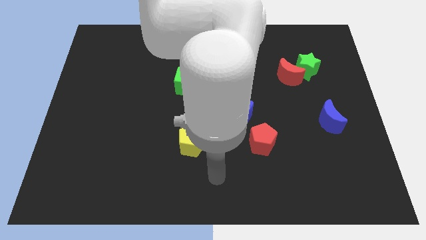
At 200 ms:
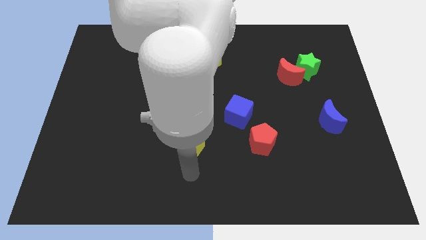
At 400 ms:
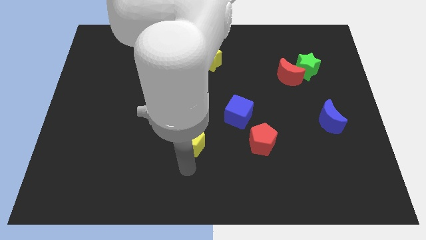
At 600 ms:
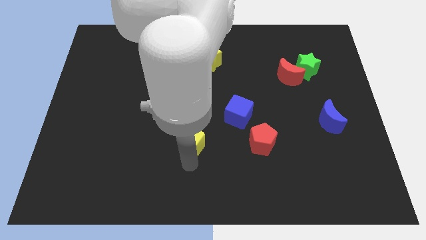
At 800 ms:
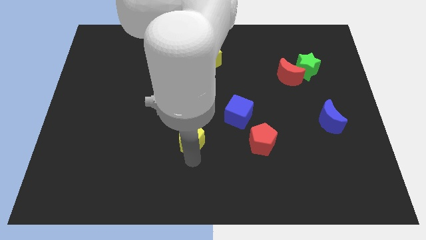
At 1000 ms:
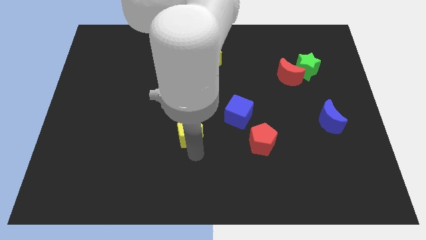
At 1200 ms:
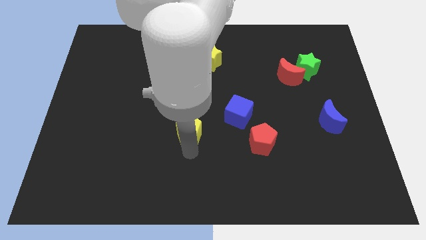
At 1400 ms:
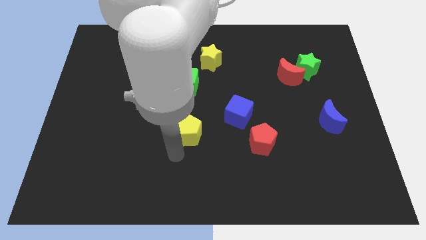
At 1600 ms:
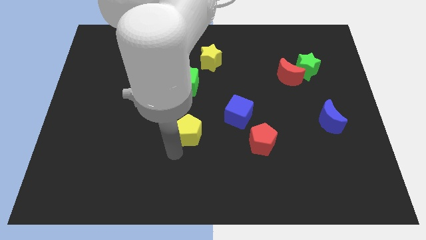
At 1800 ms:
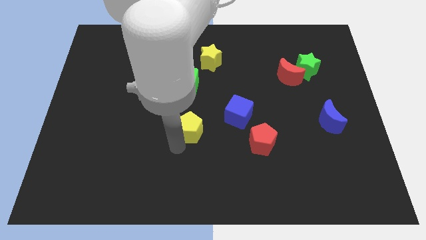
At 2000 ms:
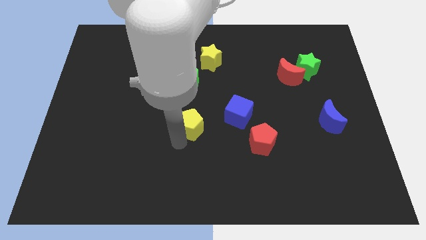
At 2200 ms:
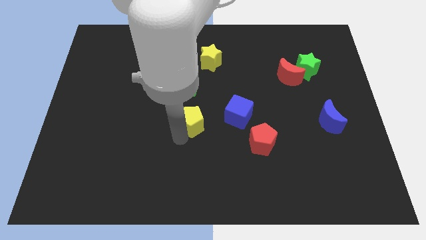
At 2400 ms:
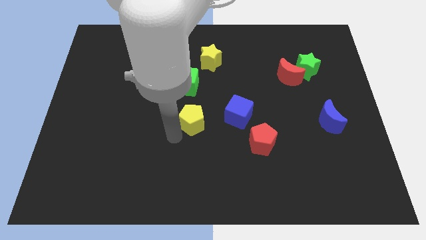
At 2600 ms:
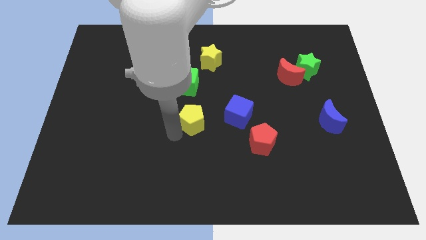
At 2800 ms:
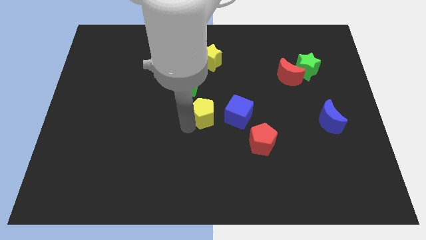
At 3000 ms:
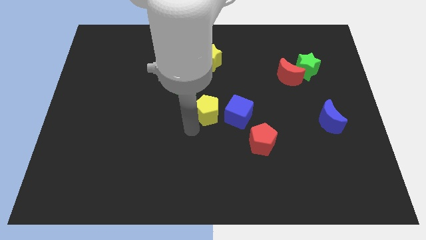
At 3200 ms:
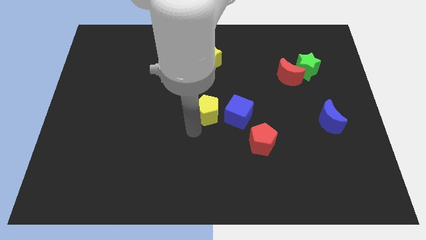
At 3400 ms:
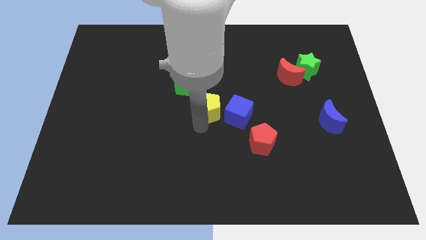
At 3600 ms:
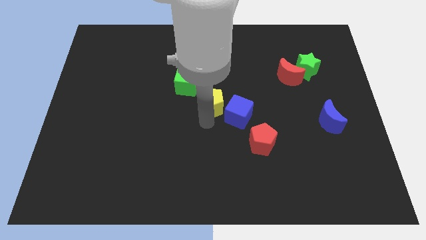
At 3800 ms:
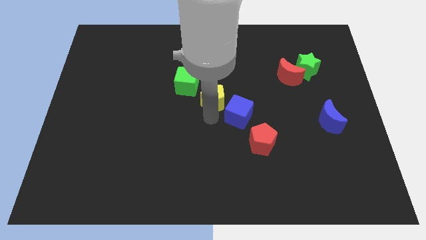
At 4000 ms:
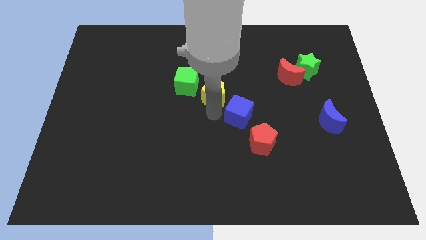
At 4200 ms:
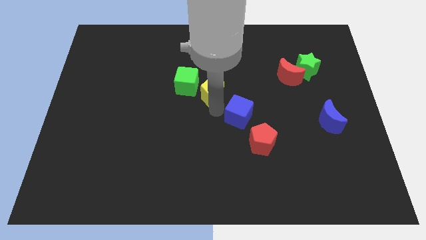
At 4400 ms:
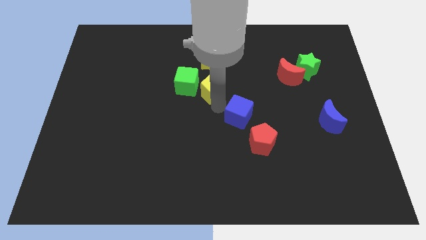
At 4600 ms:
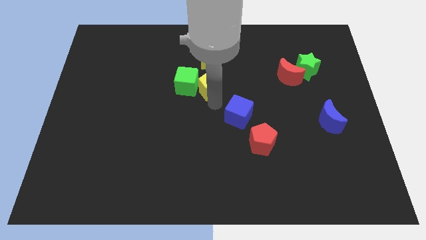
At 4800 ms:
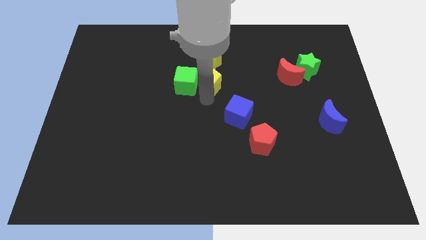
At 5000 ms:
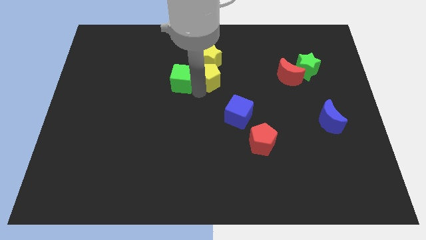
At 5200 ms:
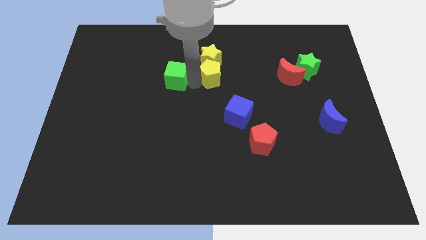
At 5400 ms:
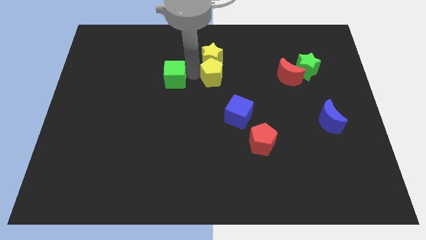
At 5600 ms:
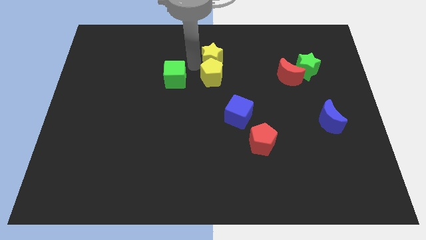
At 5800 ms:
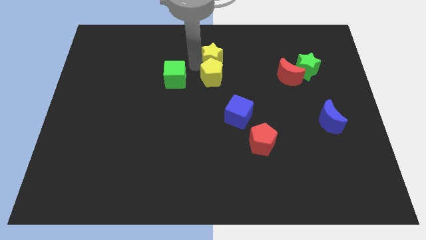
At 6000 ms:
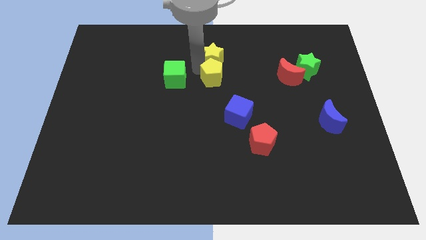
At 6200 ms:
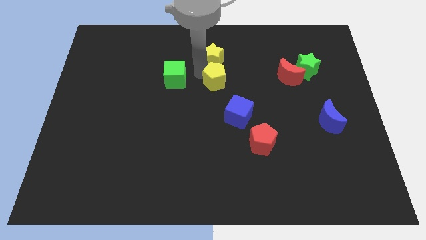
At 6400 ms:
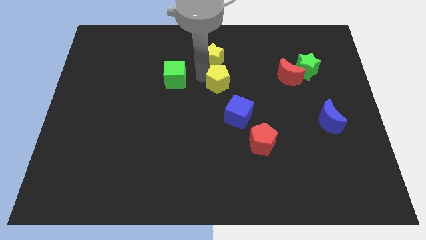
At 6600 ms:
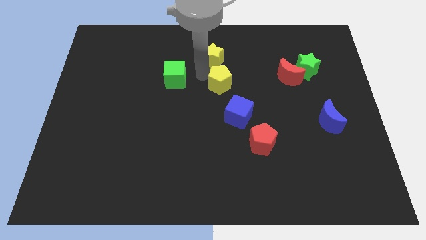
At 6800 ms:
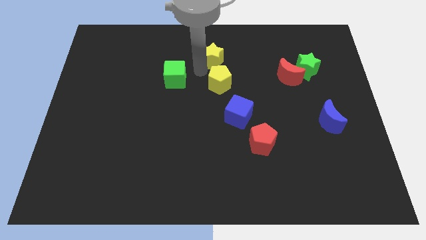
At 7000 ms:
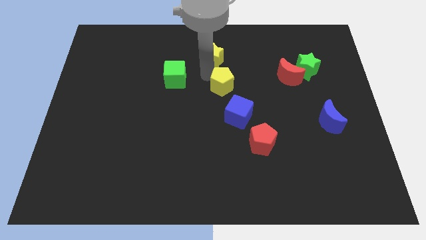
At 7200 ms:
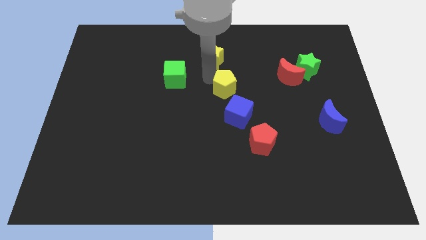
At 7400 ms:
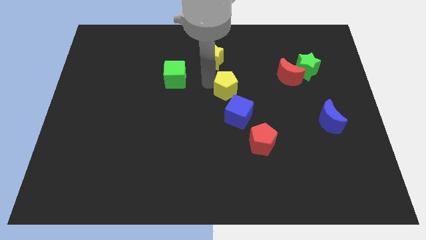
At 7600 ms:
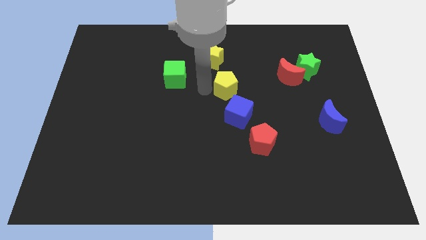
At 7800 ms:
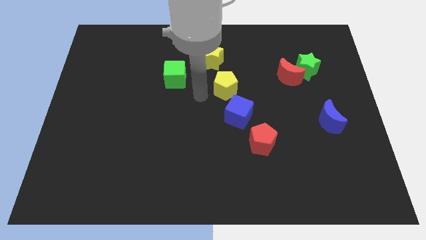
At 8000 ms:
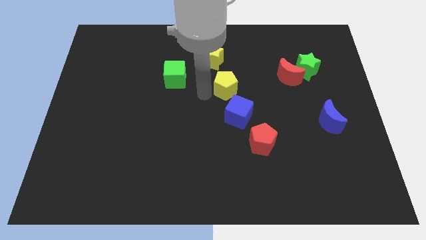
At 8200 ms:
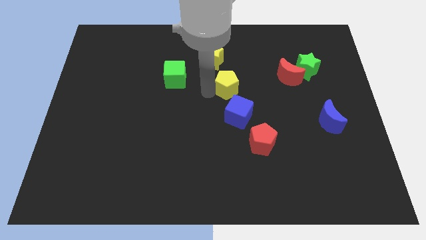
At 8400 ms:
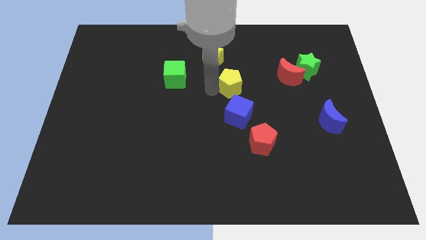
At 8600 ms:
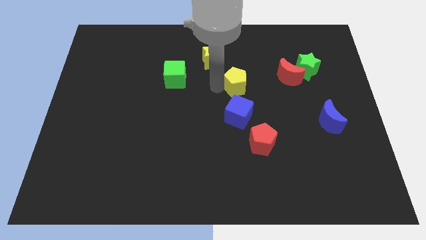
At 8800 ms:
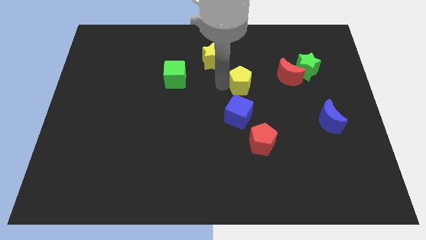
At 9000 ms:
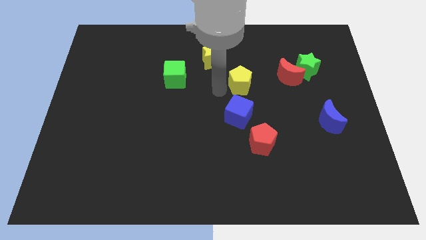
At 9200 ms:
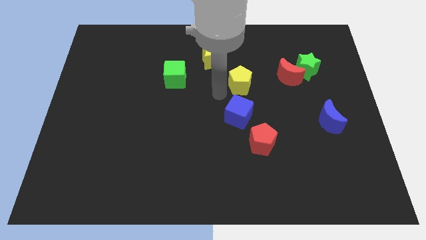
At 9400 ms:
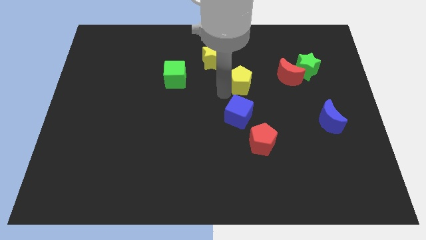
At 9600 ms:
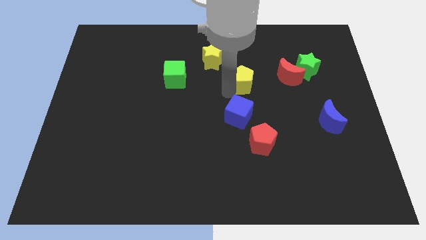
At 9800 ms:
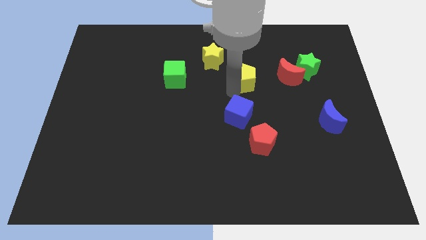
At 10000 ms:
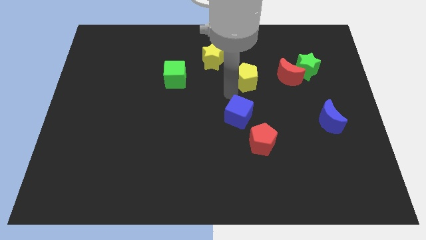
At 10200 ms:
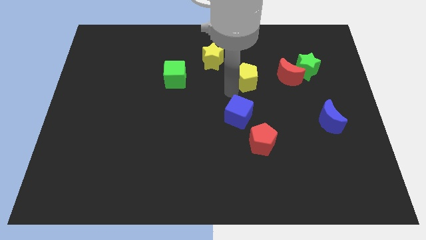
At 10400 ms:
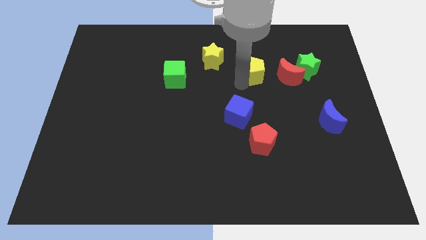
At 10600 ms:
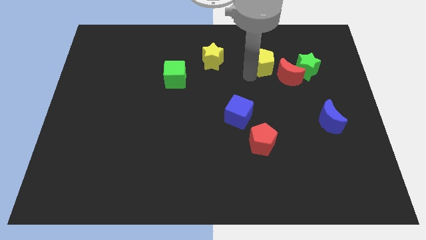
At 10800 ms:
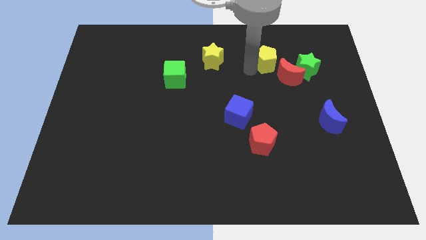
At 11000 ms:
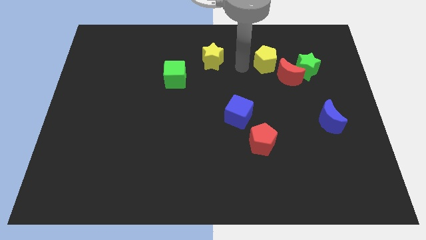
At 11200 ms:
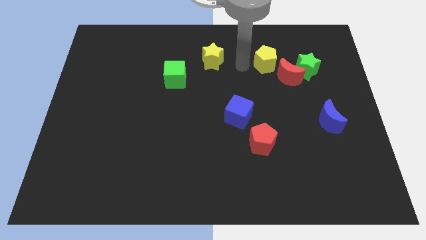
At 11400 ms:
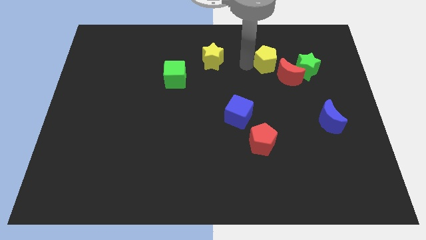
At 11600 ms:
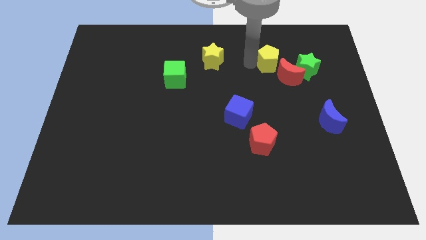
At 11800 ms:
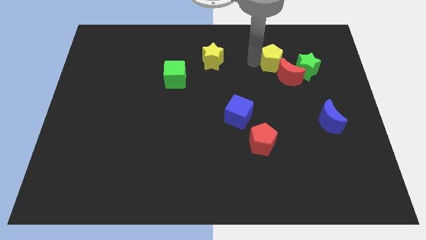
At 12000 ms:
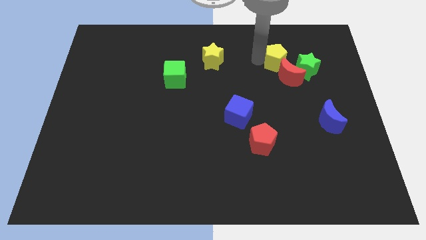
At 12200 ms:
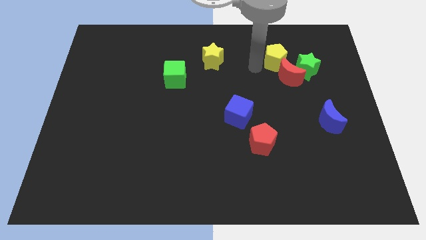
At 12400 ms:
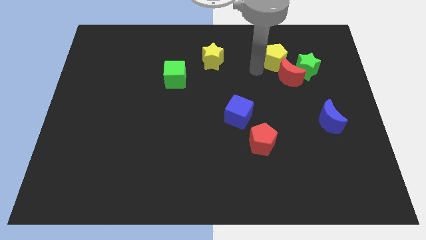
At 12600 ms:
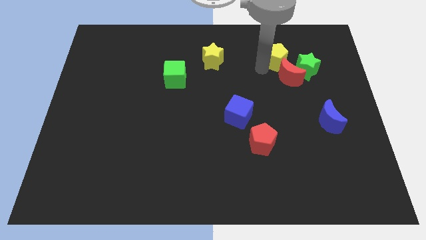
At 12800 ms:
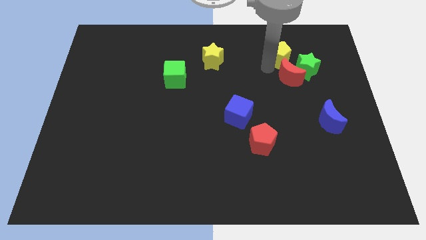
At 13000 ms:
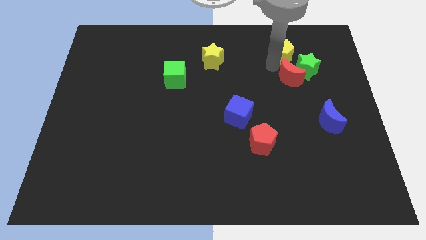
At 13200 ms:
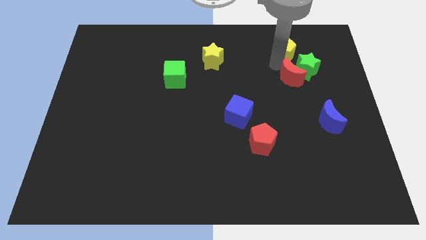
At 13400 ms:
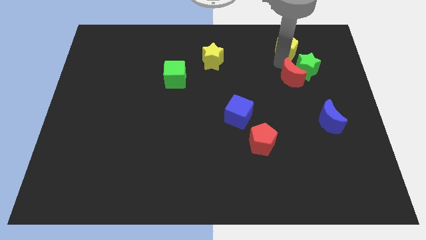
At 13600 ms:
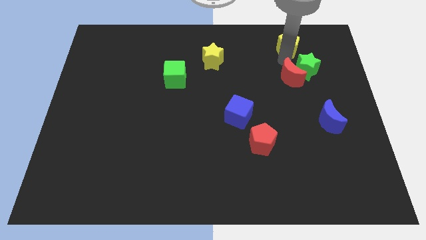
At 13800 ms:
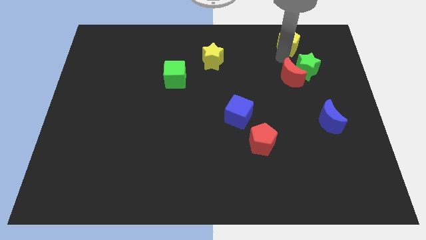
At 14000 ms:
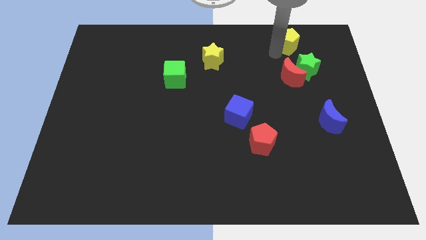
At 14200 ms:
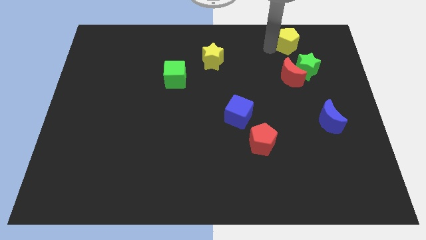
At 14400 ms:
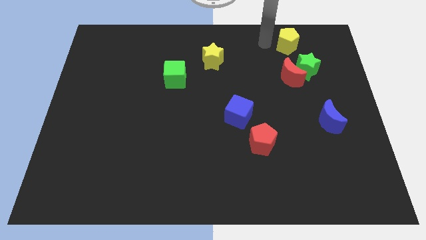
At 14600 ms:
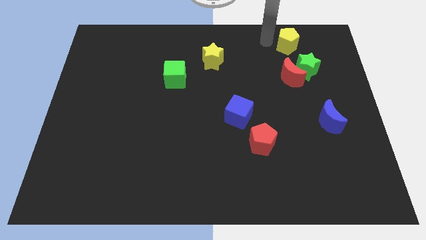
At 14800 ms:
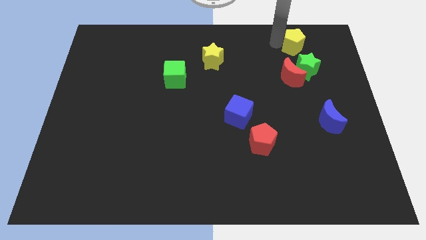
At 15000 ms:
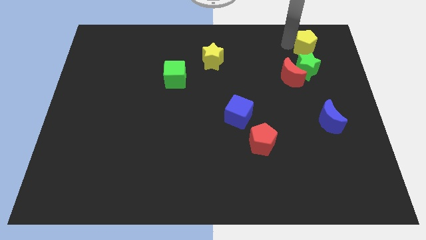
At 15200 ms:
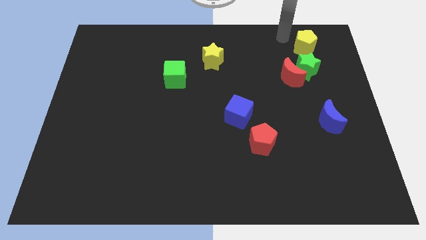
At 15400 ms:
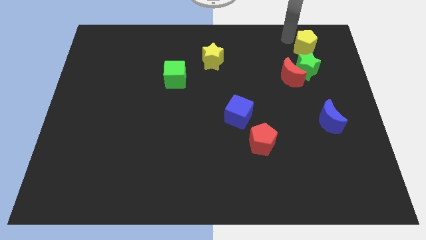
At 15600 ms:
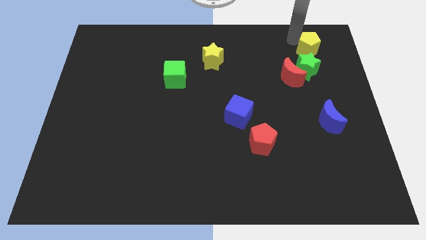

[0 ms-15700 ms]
slide the yellow pentagon to the top right side of the green star
